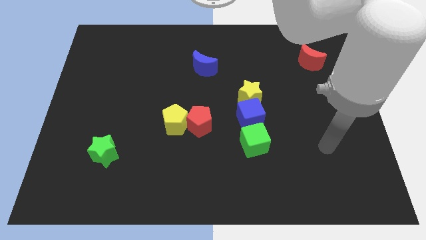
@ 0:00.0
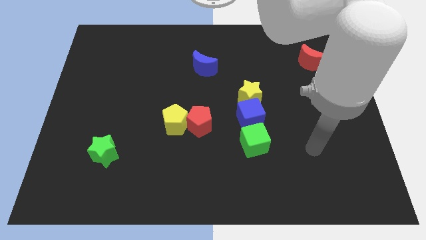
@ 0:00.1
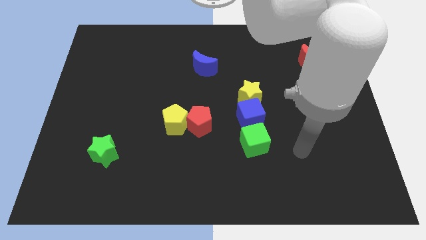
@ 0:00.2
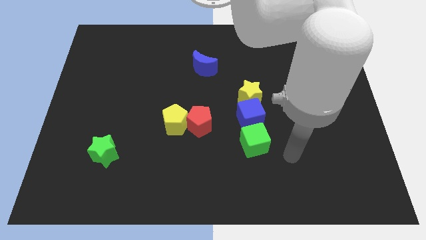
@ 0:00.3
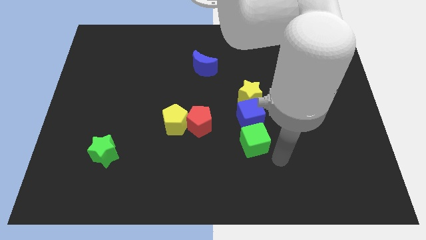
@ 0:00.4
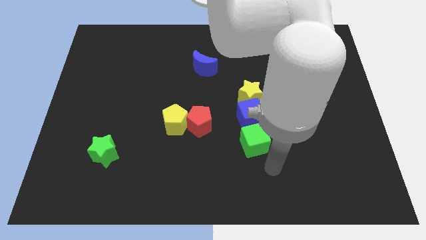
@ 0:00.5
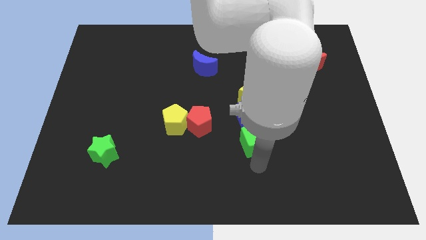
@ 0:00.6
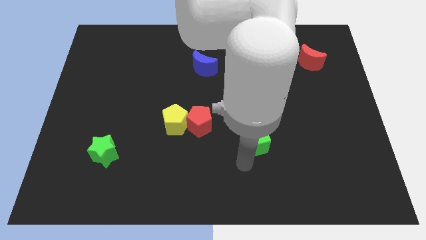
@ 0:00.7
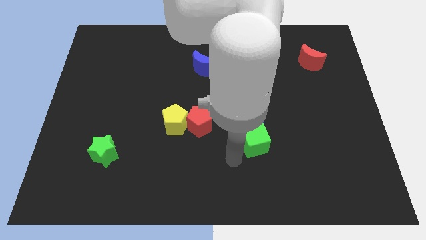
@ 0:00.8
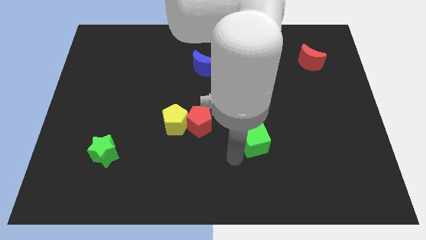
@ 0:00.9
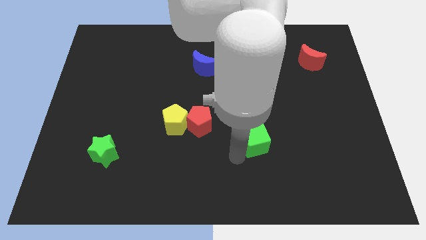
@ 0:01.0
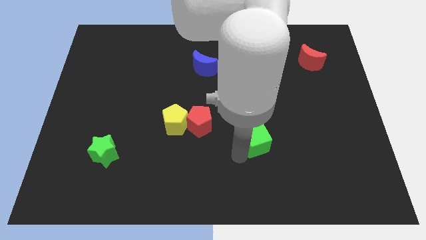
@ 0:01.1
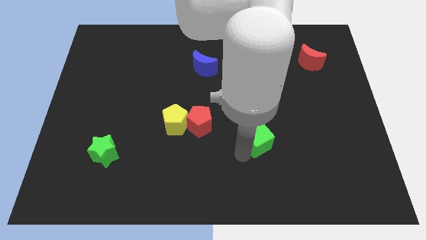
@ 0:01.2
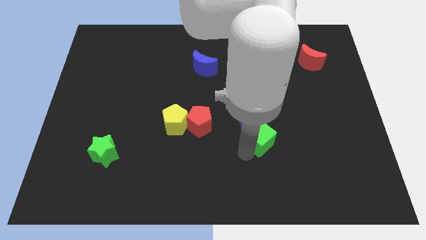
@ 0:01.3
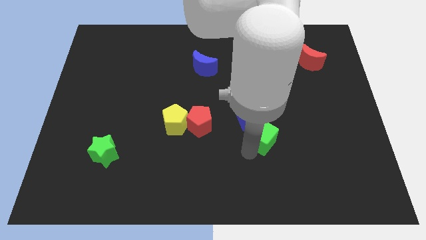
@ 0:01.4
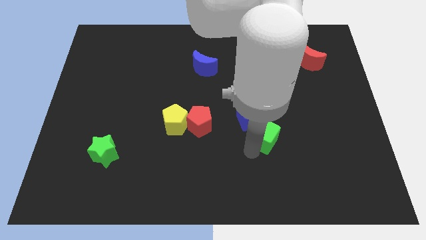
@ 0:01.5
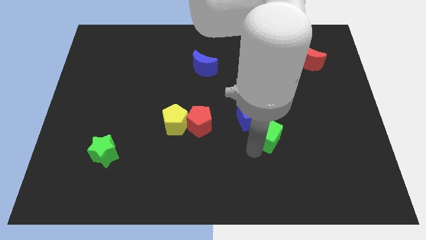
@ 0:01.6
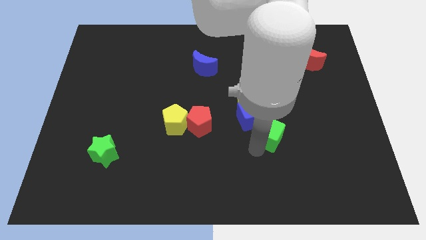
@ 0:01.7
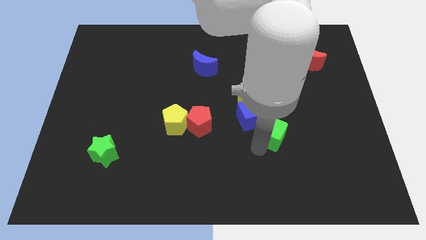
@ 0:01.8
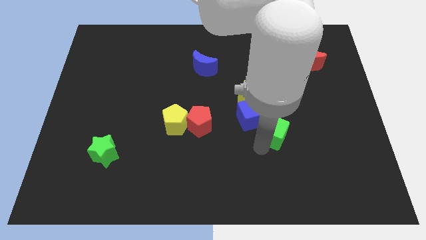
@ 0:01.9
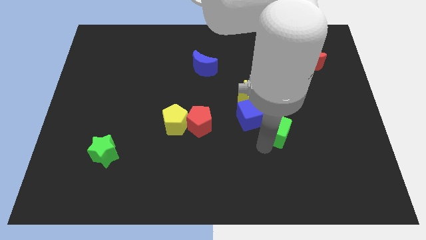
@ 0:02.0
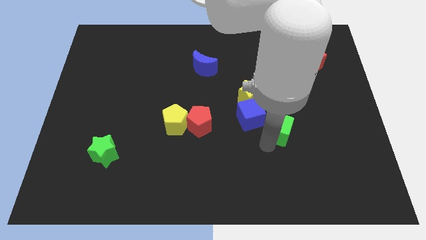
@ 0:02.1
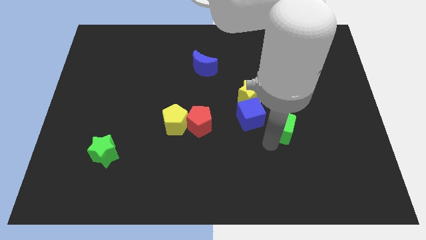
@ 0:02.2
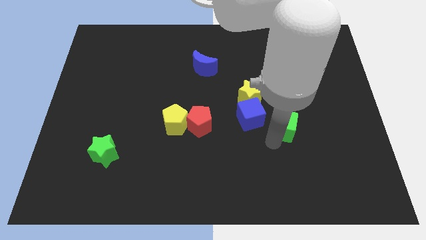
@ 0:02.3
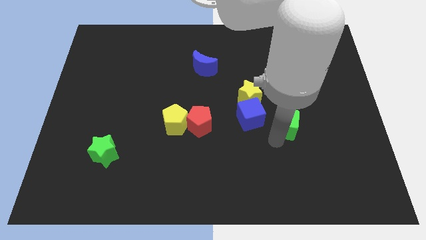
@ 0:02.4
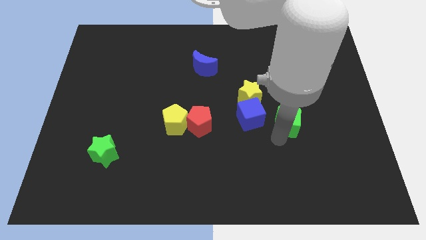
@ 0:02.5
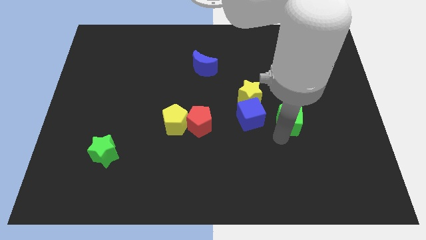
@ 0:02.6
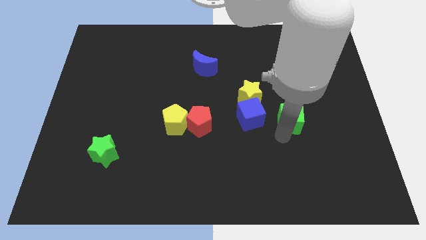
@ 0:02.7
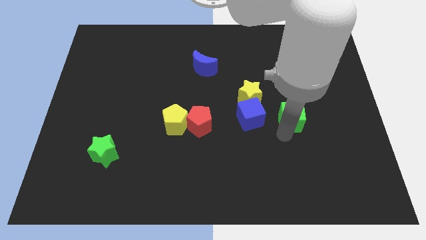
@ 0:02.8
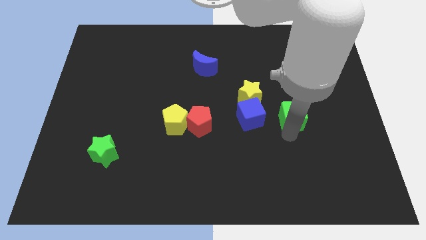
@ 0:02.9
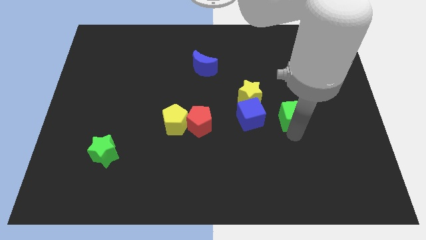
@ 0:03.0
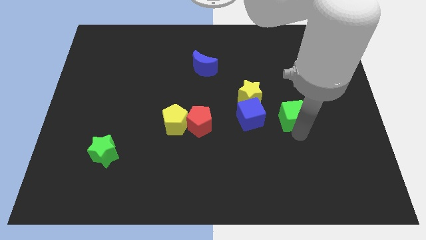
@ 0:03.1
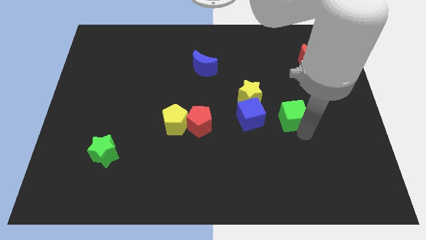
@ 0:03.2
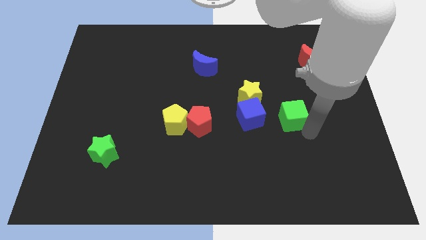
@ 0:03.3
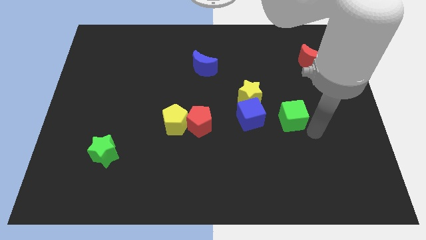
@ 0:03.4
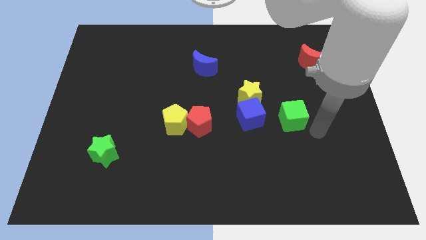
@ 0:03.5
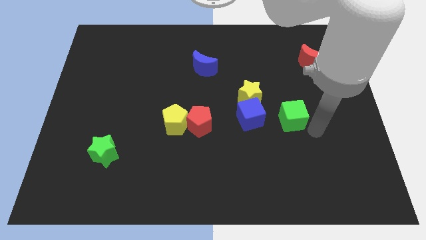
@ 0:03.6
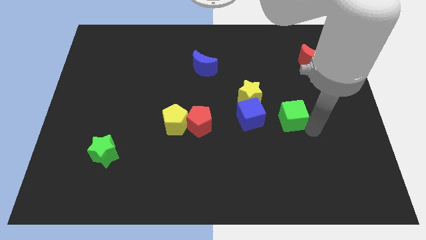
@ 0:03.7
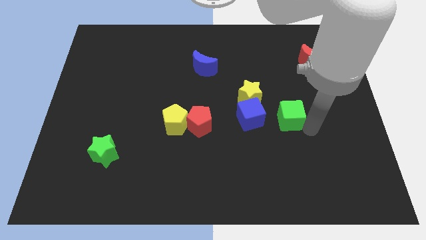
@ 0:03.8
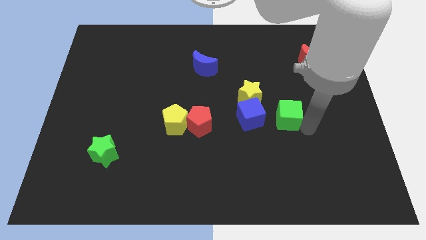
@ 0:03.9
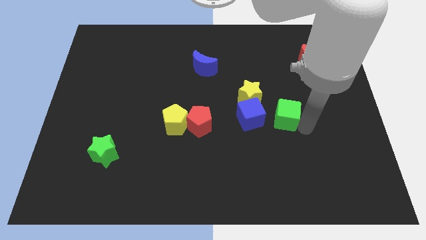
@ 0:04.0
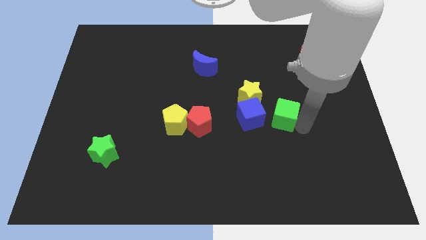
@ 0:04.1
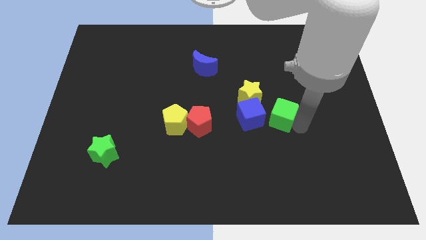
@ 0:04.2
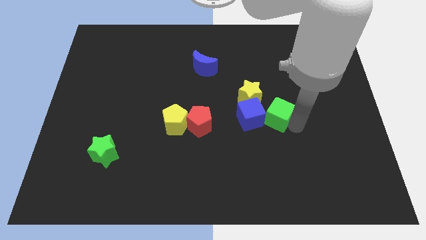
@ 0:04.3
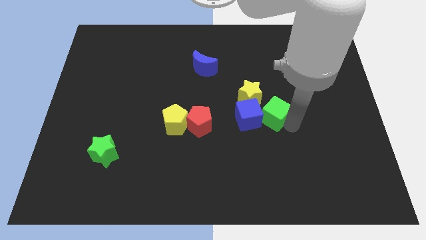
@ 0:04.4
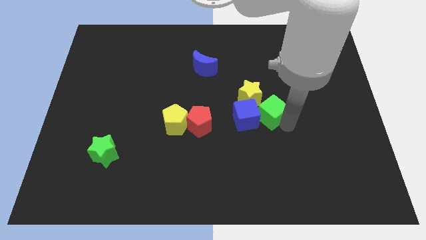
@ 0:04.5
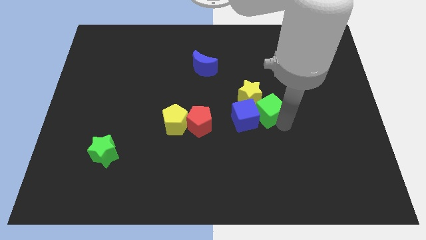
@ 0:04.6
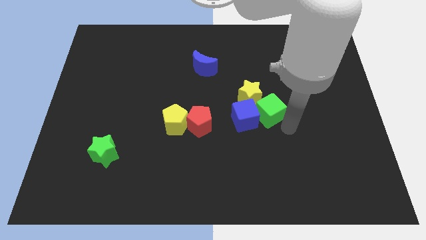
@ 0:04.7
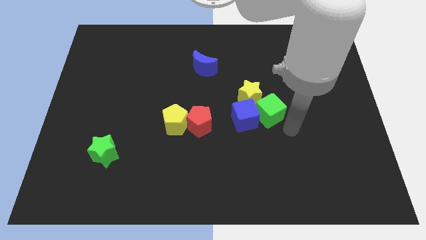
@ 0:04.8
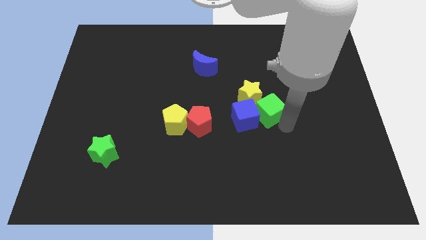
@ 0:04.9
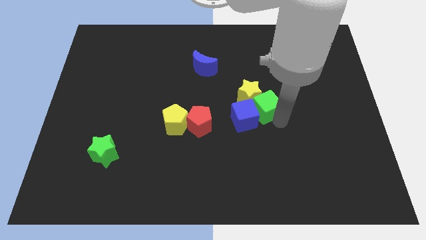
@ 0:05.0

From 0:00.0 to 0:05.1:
put the green cube to the yellow star

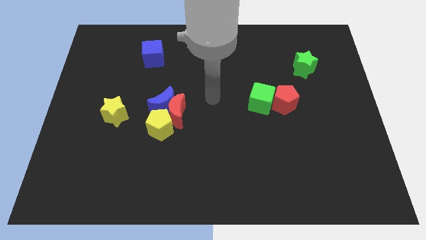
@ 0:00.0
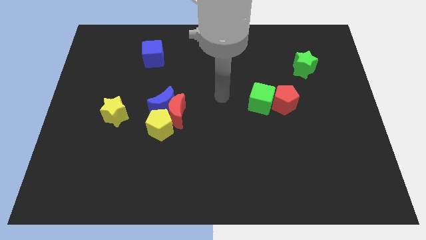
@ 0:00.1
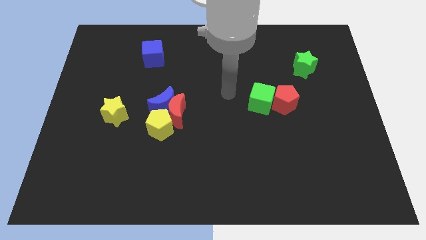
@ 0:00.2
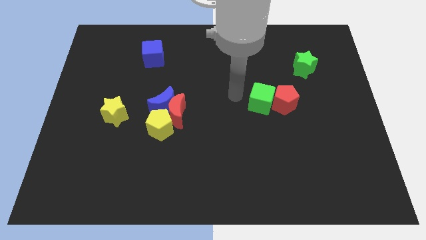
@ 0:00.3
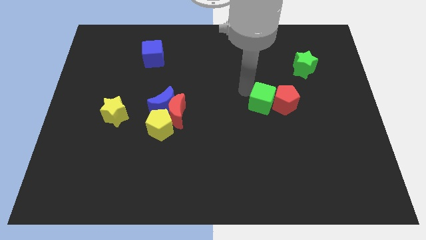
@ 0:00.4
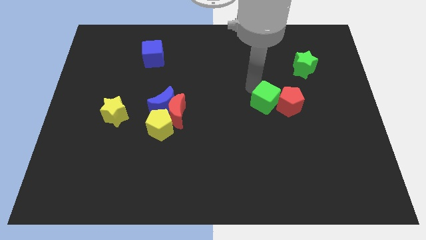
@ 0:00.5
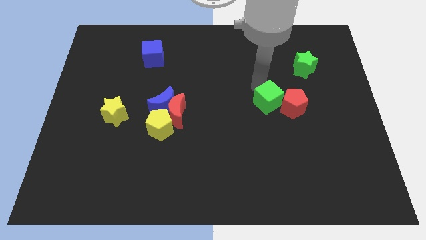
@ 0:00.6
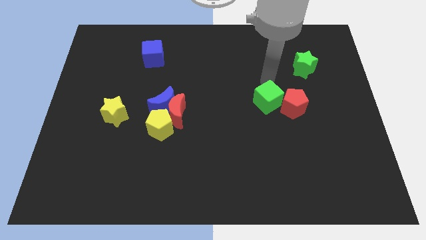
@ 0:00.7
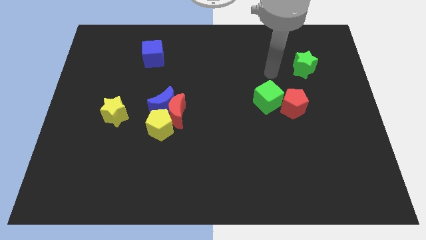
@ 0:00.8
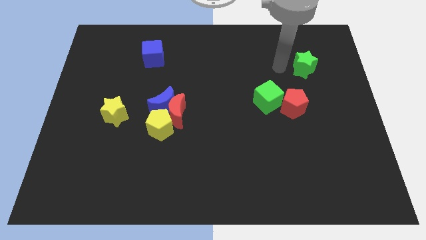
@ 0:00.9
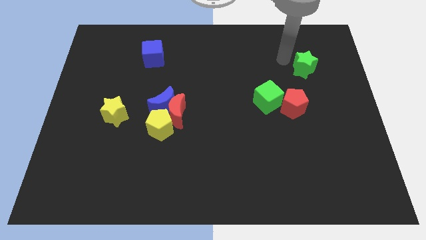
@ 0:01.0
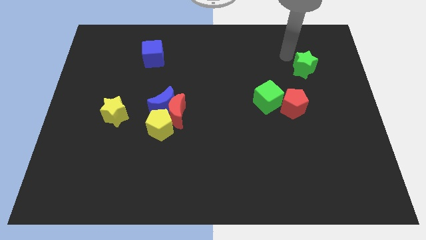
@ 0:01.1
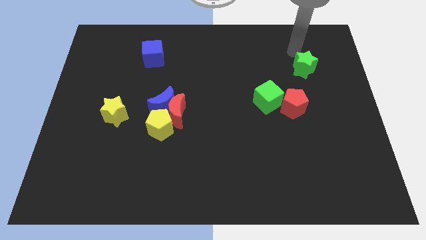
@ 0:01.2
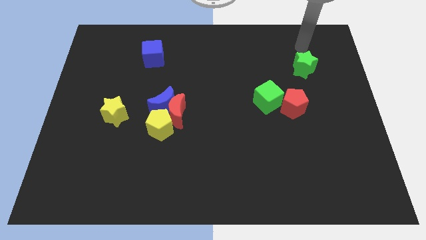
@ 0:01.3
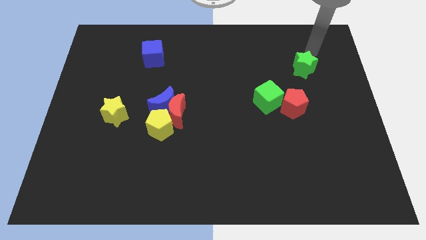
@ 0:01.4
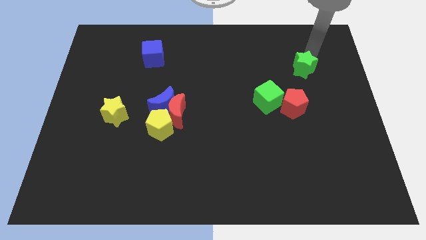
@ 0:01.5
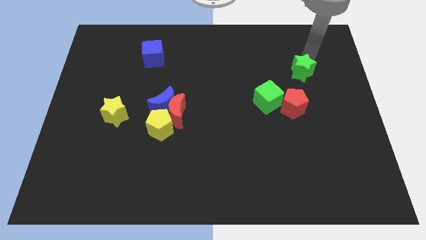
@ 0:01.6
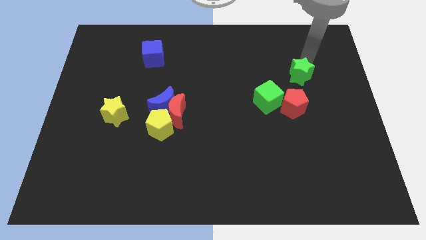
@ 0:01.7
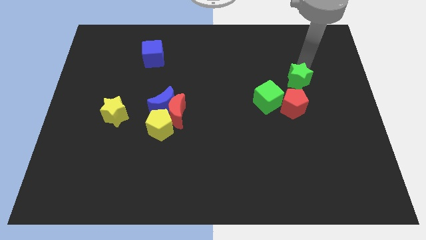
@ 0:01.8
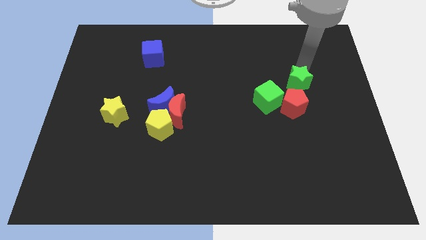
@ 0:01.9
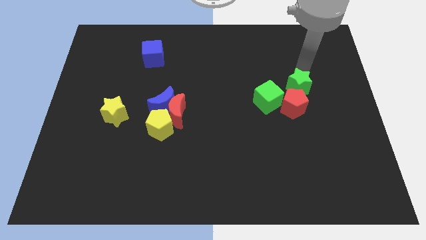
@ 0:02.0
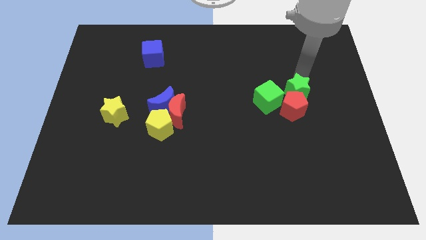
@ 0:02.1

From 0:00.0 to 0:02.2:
push the green star to the red pentagon

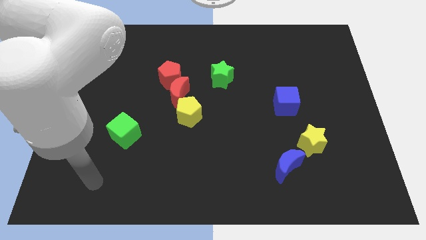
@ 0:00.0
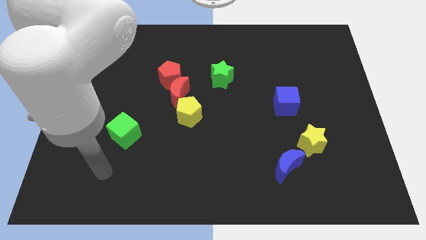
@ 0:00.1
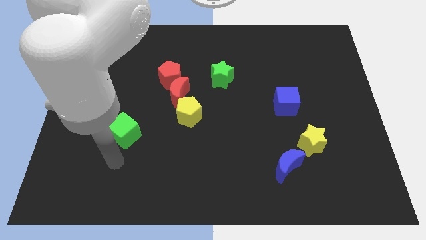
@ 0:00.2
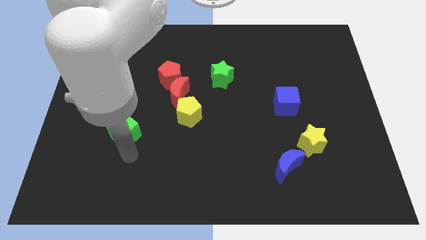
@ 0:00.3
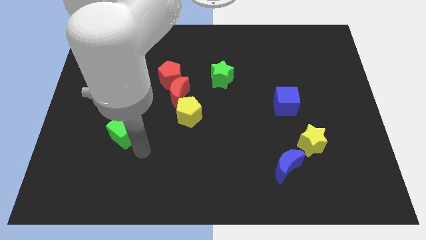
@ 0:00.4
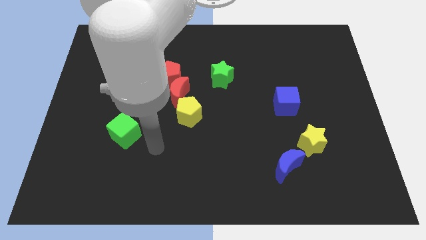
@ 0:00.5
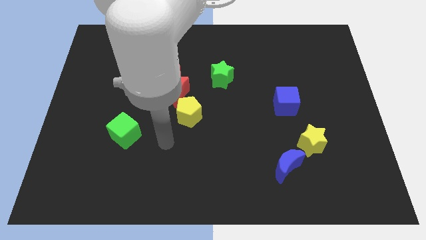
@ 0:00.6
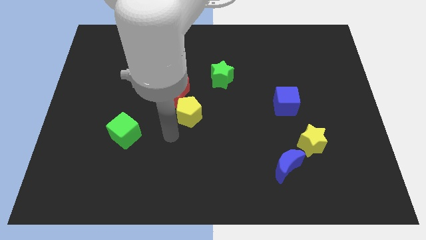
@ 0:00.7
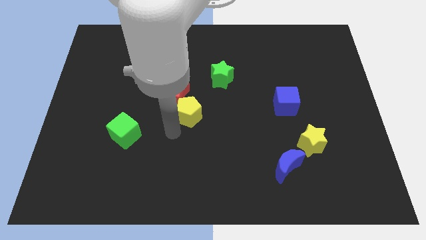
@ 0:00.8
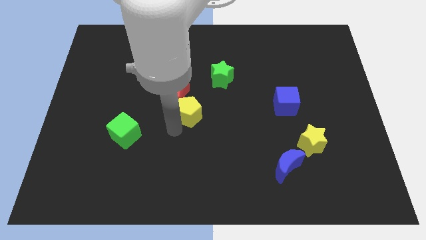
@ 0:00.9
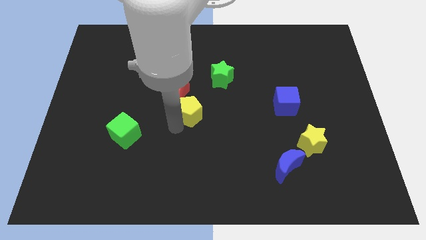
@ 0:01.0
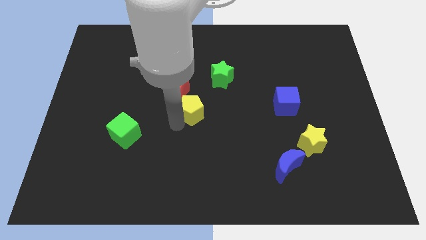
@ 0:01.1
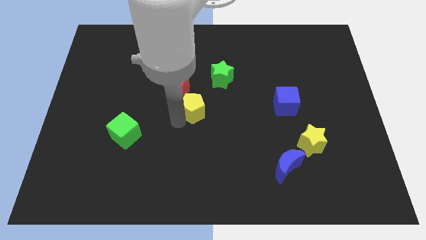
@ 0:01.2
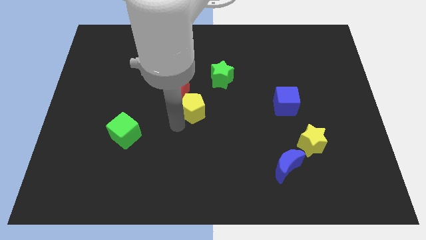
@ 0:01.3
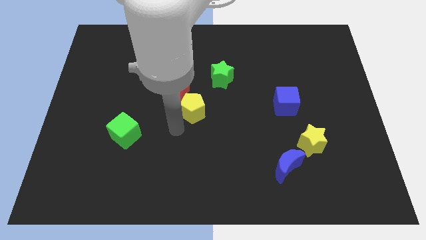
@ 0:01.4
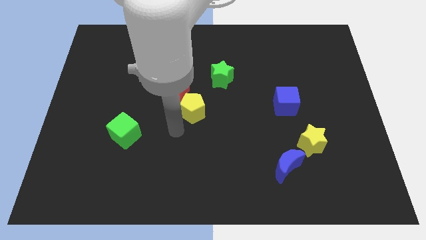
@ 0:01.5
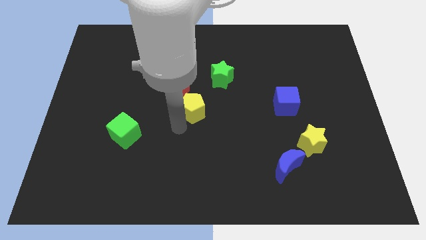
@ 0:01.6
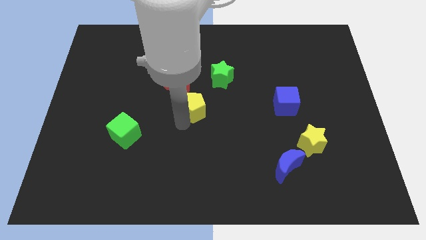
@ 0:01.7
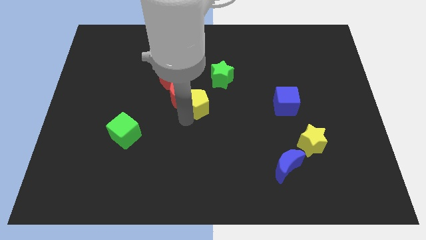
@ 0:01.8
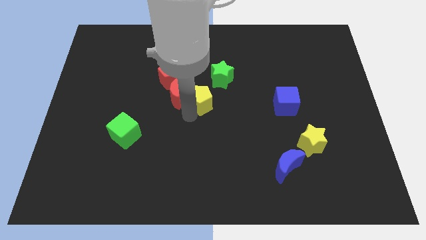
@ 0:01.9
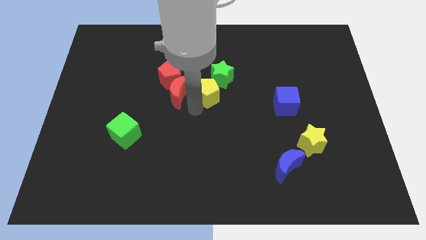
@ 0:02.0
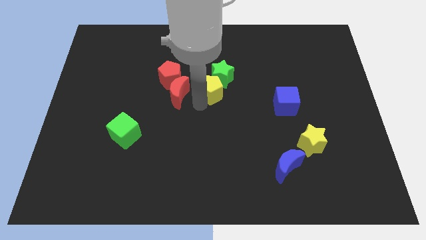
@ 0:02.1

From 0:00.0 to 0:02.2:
put the yellow pentagon next to the green star
